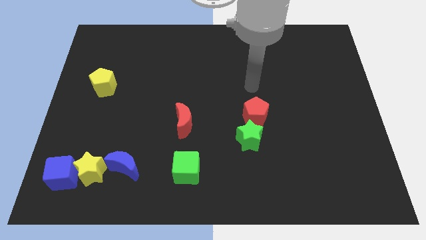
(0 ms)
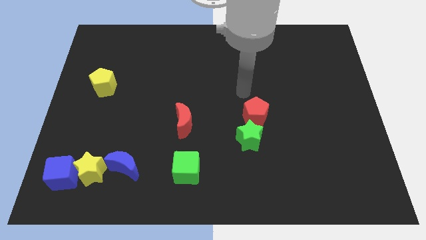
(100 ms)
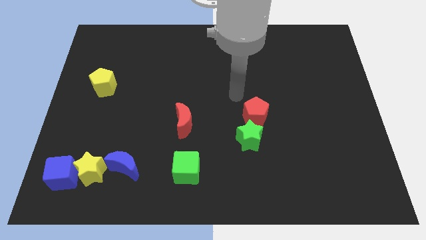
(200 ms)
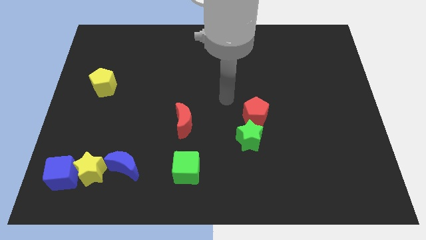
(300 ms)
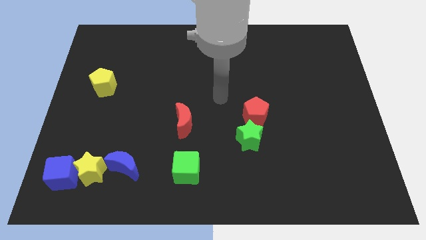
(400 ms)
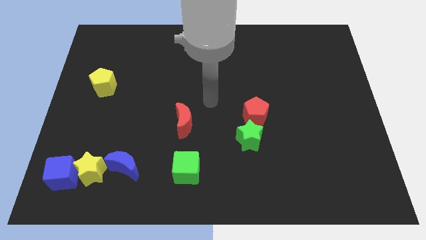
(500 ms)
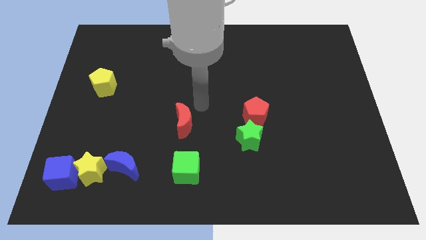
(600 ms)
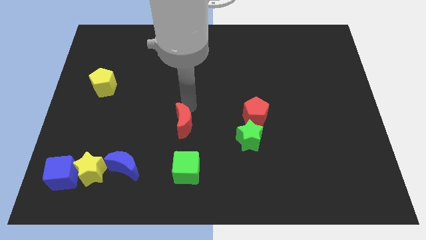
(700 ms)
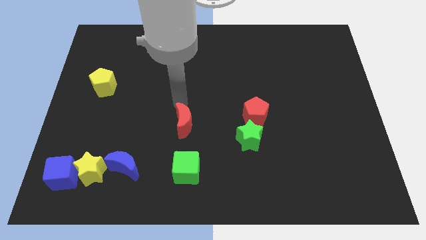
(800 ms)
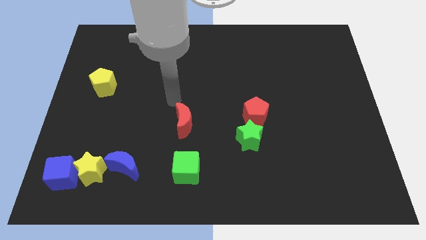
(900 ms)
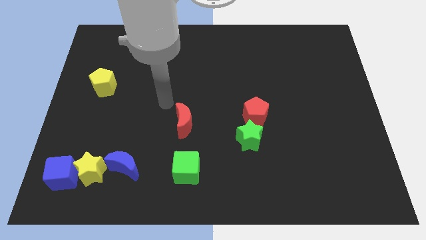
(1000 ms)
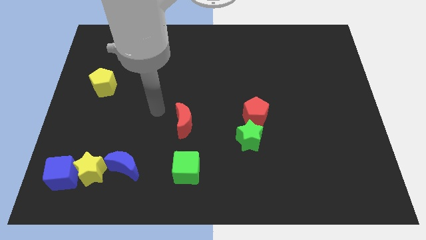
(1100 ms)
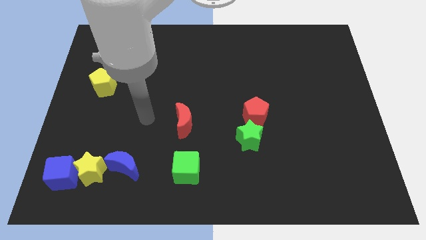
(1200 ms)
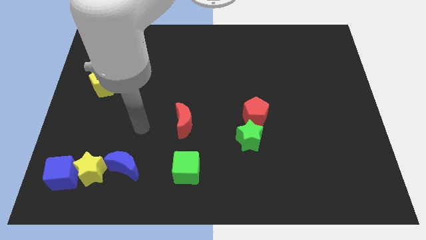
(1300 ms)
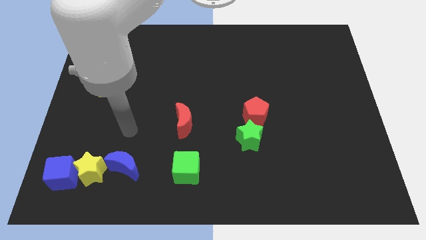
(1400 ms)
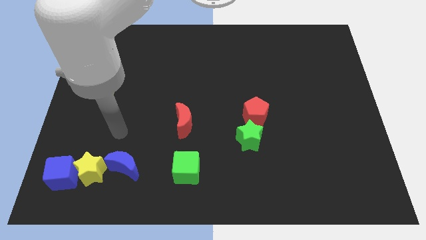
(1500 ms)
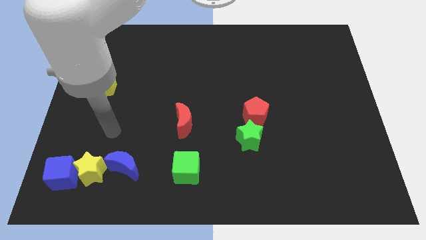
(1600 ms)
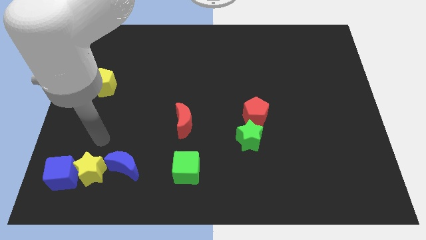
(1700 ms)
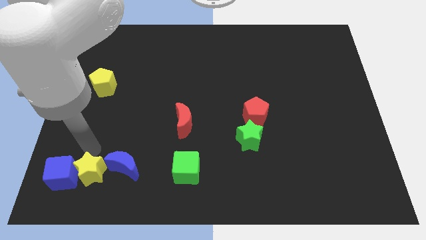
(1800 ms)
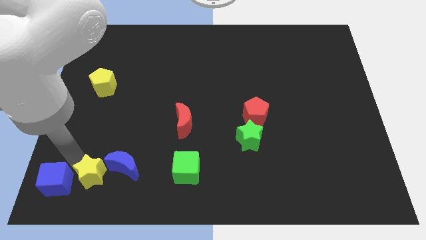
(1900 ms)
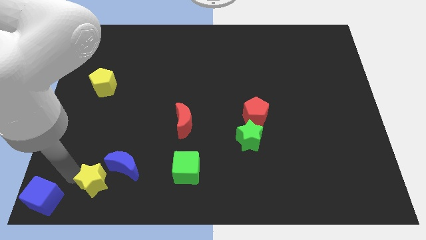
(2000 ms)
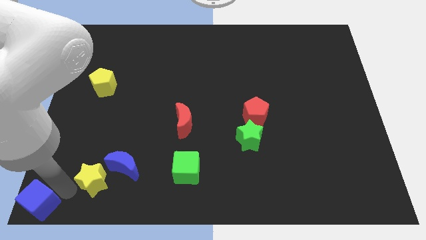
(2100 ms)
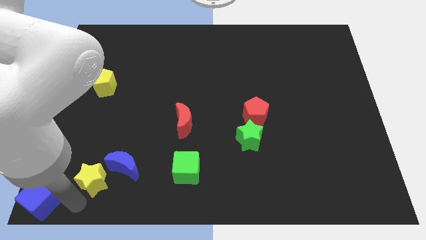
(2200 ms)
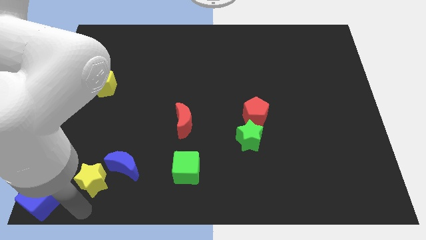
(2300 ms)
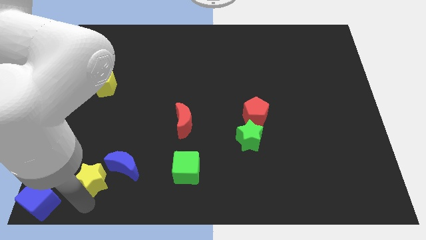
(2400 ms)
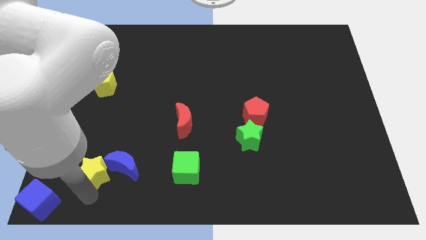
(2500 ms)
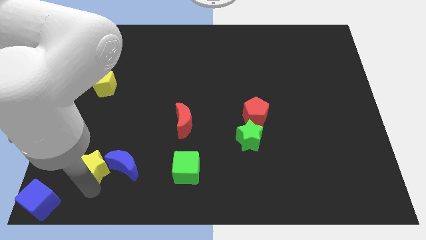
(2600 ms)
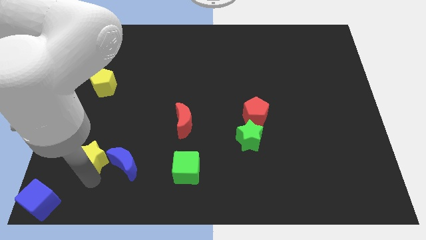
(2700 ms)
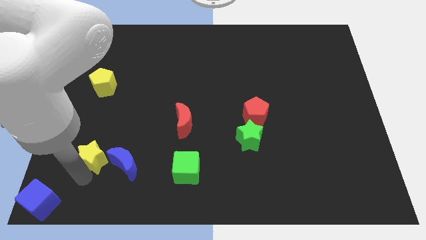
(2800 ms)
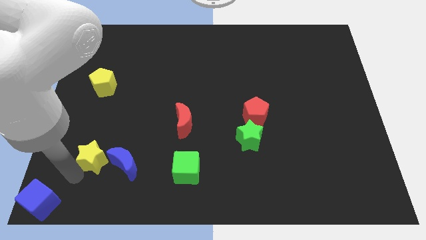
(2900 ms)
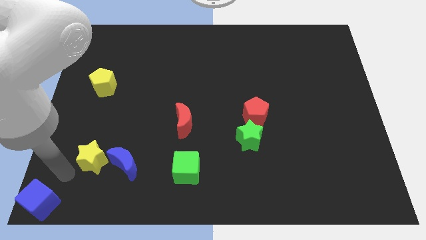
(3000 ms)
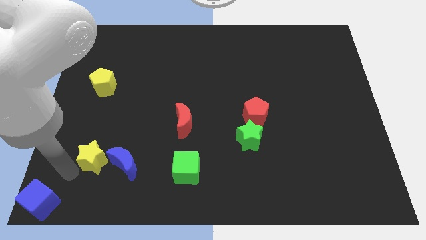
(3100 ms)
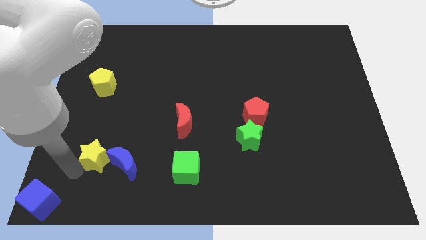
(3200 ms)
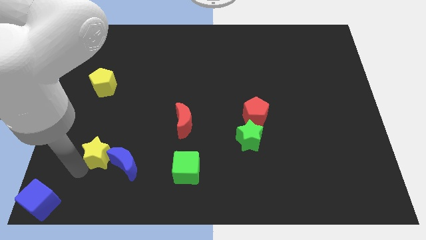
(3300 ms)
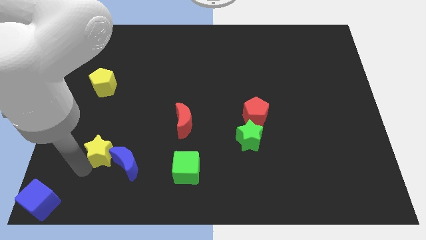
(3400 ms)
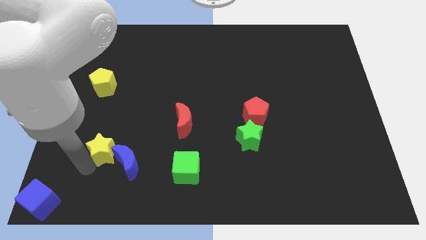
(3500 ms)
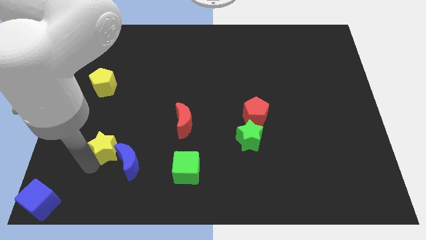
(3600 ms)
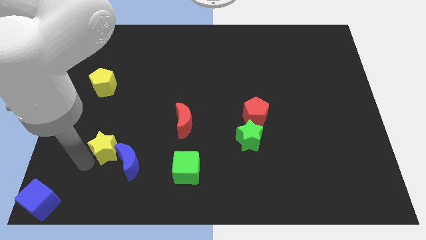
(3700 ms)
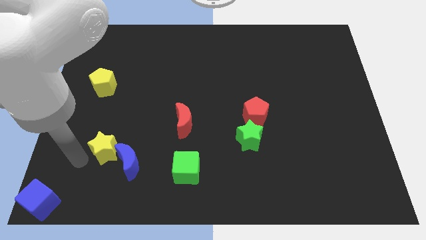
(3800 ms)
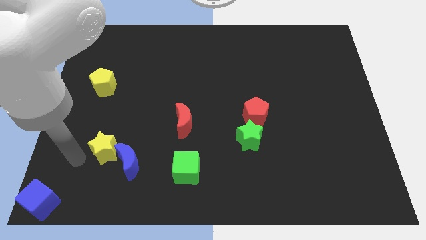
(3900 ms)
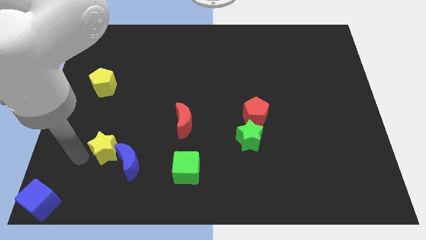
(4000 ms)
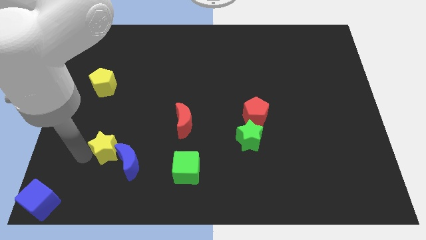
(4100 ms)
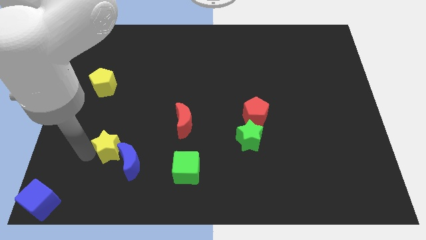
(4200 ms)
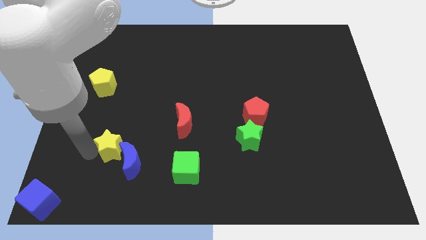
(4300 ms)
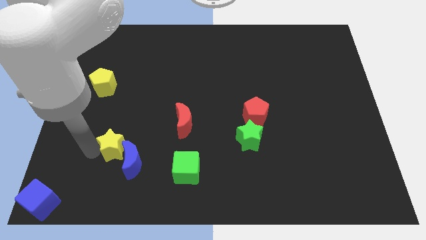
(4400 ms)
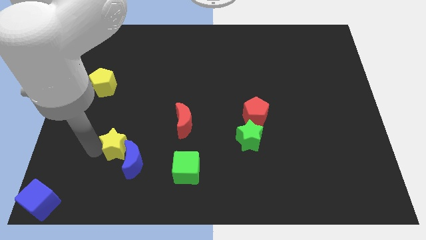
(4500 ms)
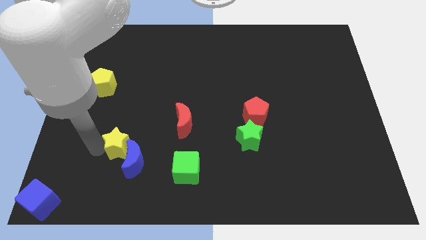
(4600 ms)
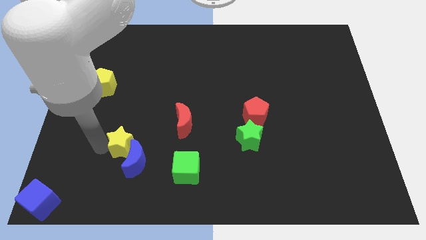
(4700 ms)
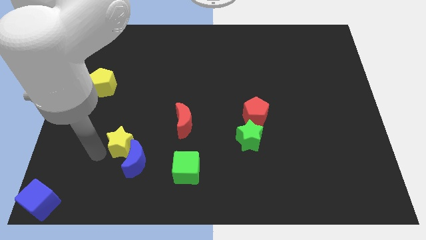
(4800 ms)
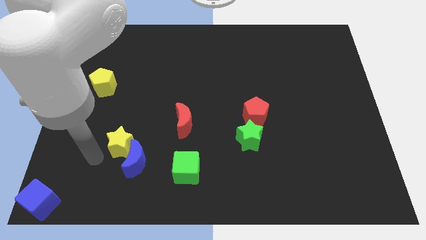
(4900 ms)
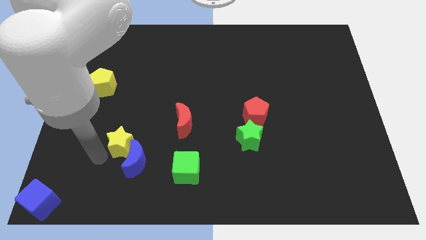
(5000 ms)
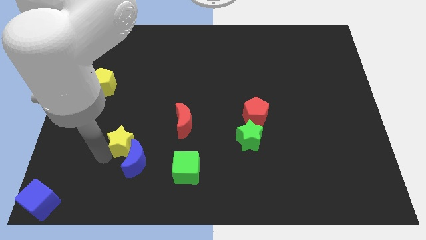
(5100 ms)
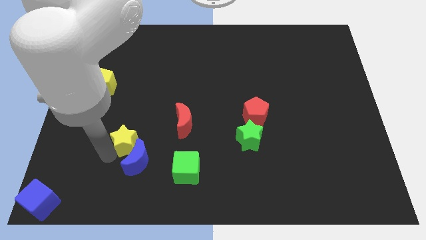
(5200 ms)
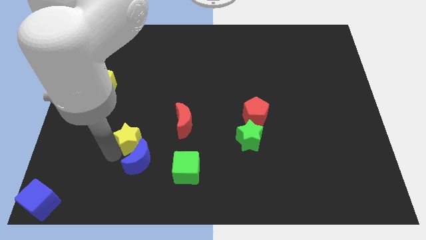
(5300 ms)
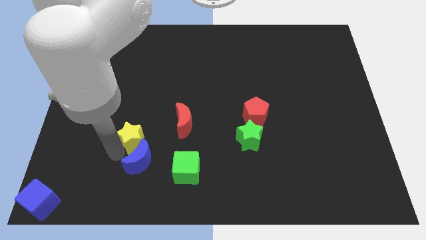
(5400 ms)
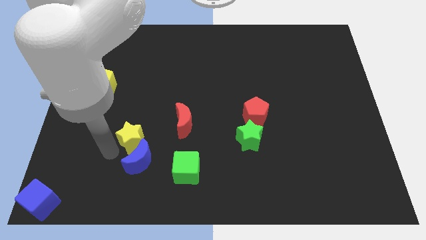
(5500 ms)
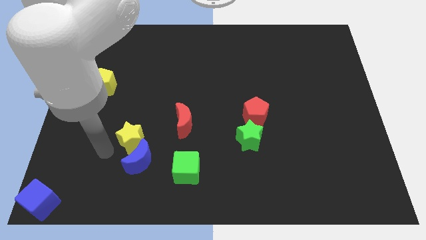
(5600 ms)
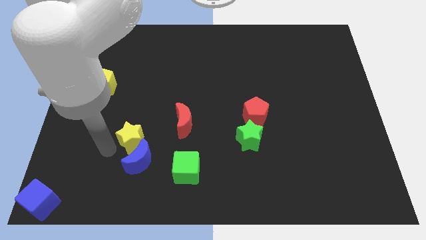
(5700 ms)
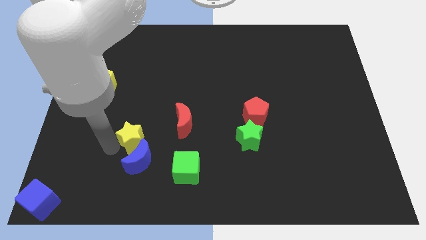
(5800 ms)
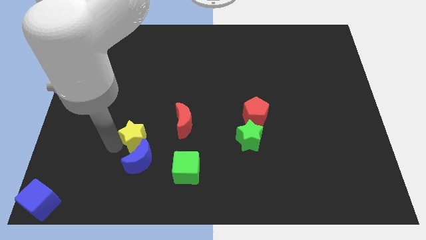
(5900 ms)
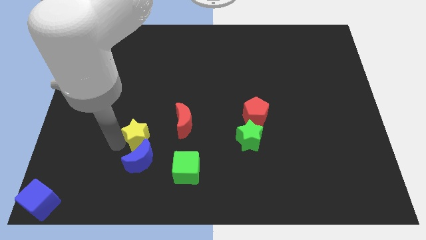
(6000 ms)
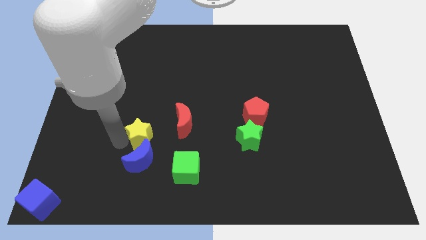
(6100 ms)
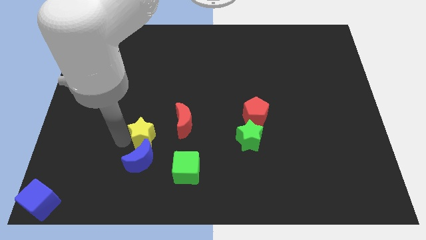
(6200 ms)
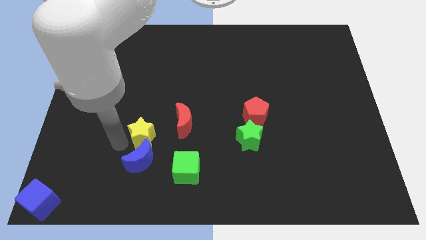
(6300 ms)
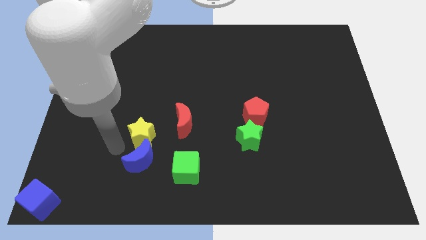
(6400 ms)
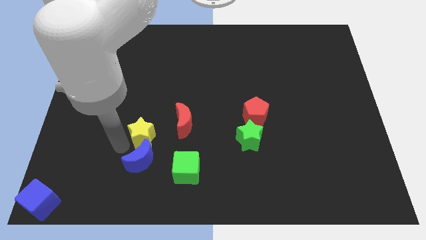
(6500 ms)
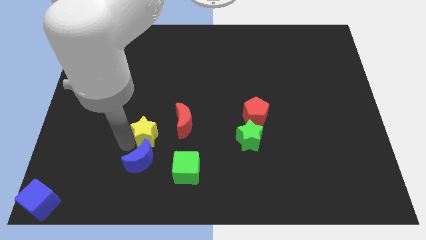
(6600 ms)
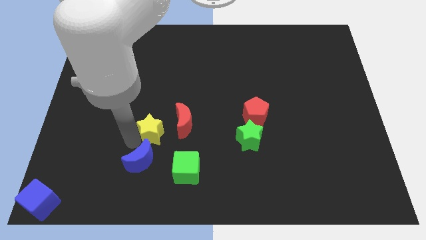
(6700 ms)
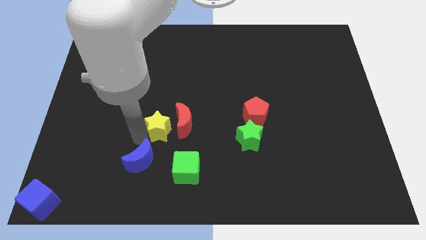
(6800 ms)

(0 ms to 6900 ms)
move the yellow star towards the red moon

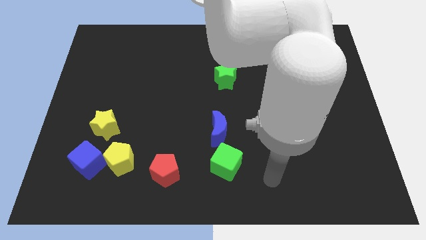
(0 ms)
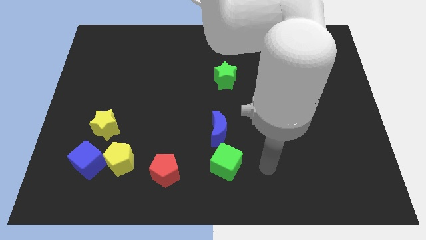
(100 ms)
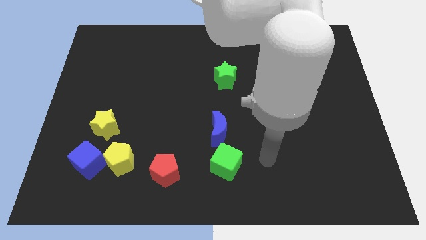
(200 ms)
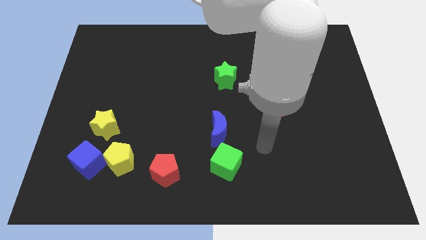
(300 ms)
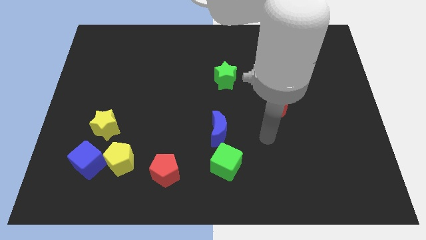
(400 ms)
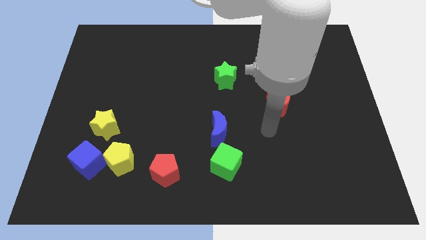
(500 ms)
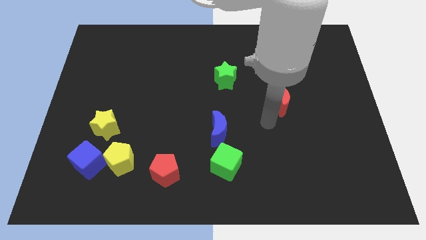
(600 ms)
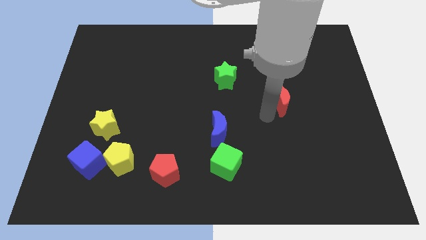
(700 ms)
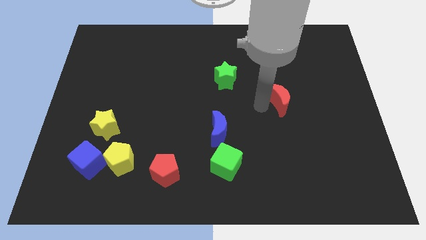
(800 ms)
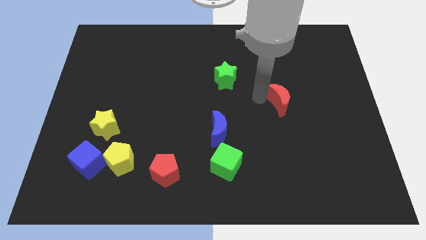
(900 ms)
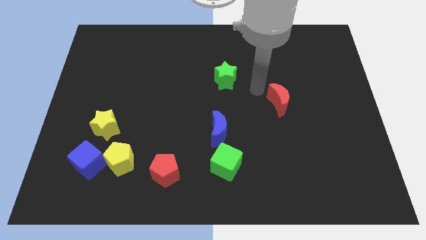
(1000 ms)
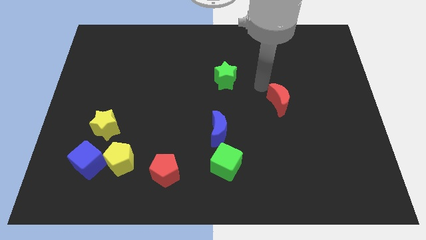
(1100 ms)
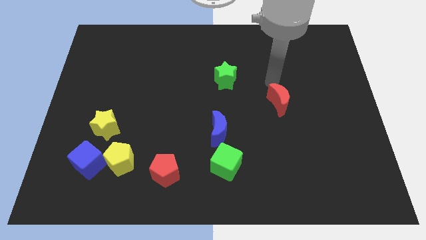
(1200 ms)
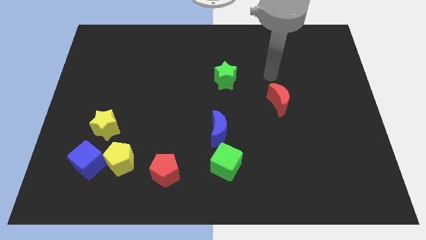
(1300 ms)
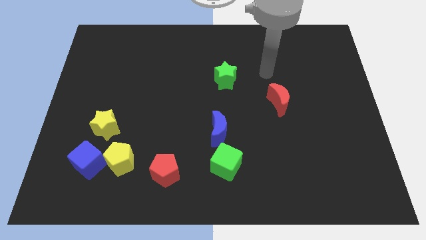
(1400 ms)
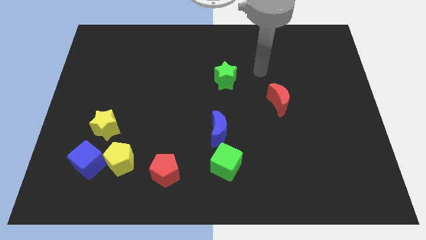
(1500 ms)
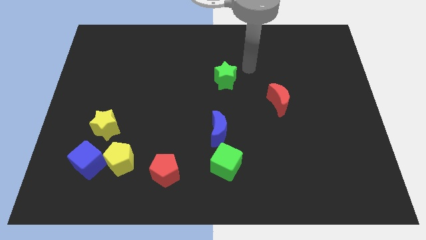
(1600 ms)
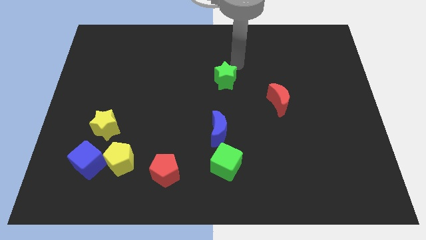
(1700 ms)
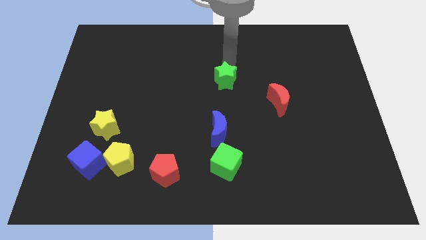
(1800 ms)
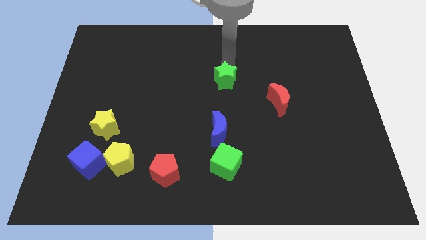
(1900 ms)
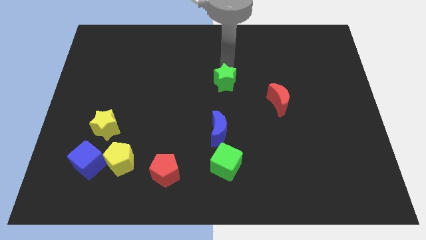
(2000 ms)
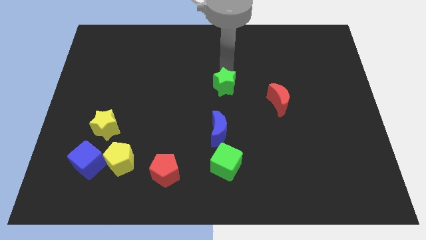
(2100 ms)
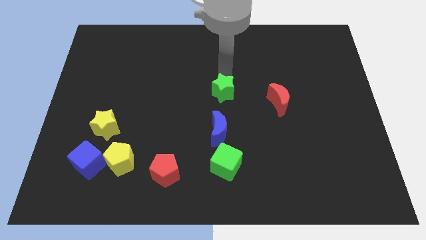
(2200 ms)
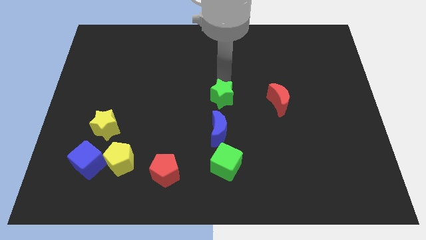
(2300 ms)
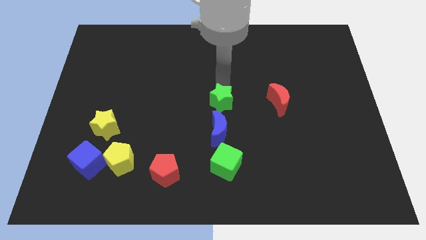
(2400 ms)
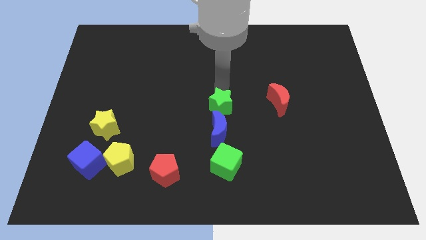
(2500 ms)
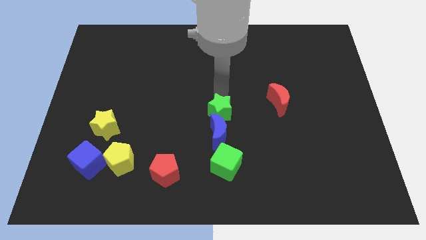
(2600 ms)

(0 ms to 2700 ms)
move the green star close to the blue moon
